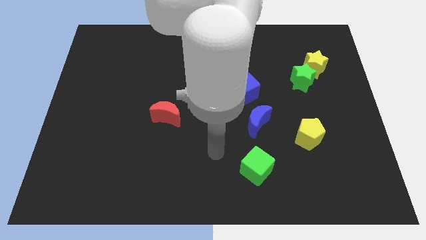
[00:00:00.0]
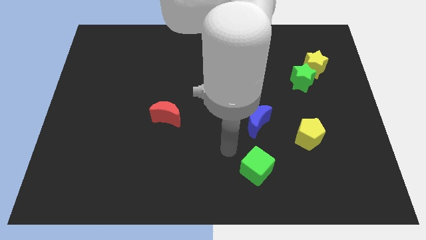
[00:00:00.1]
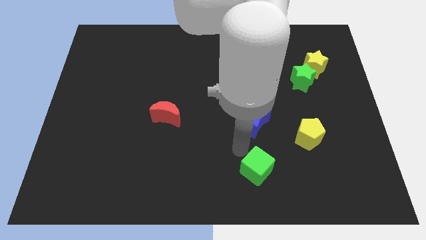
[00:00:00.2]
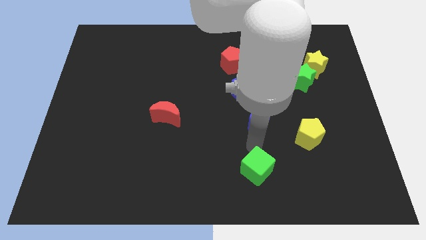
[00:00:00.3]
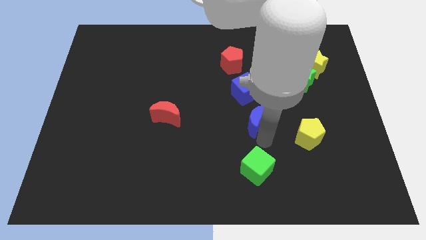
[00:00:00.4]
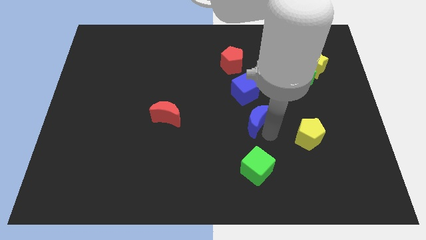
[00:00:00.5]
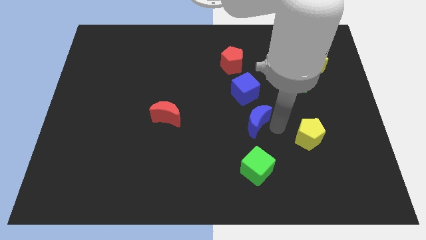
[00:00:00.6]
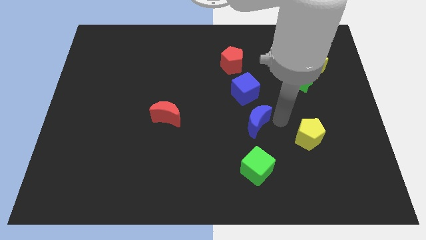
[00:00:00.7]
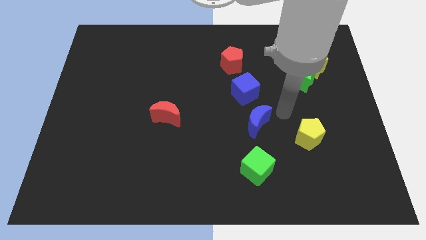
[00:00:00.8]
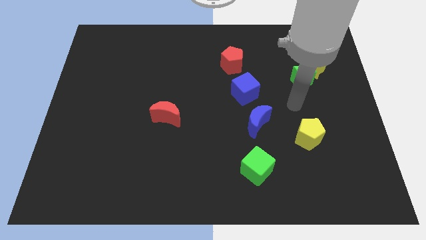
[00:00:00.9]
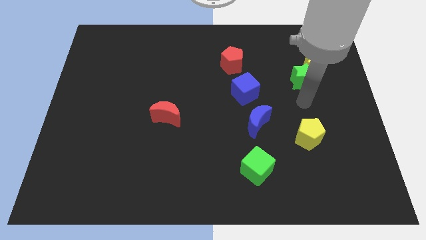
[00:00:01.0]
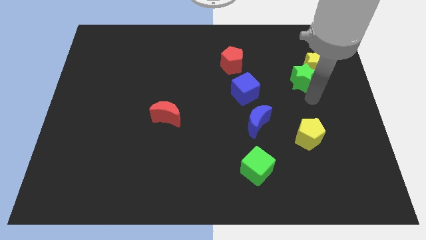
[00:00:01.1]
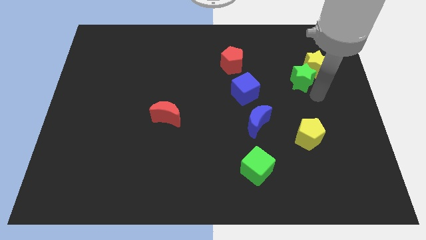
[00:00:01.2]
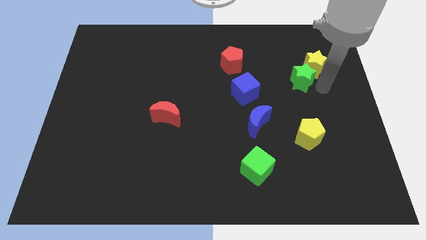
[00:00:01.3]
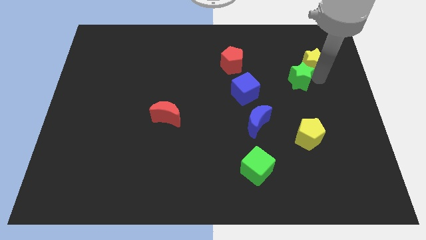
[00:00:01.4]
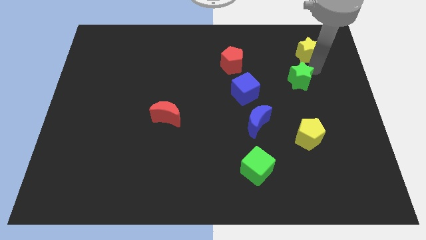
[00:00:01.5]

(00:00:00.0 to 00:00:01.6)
separate the green star from the yellow star

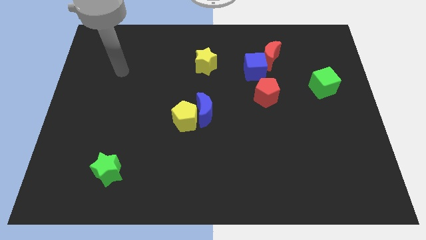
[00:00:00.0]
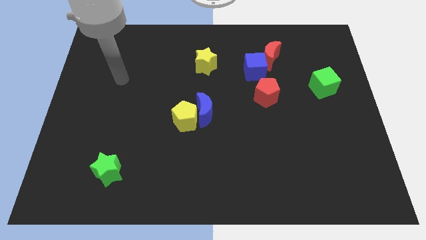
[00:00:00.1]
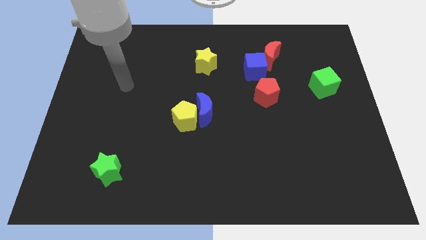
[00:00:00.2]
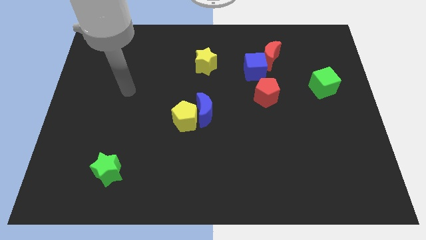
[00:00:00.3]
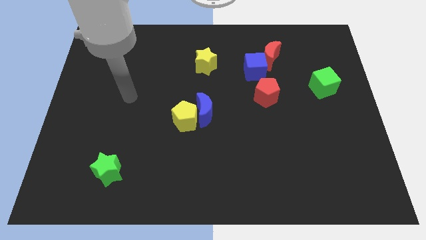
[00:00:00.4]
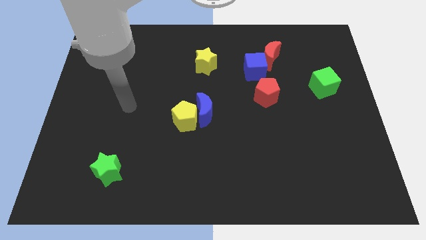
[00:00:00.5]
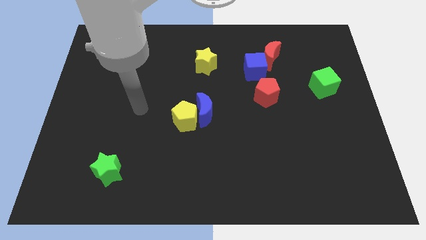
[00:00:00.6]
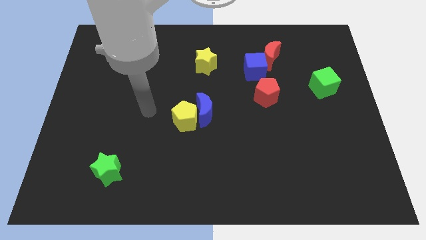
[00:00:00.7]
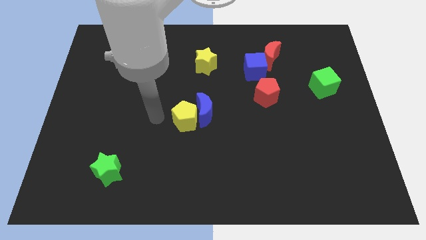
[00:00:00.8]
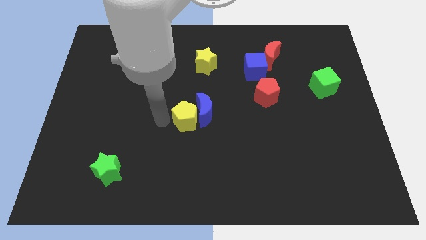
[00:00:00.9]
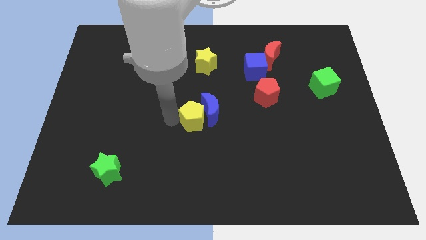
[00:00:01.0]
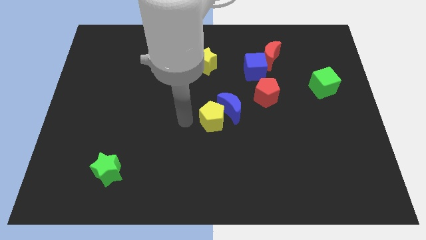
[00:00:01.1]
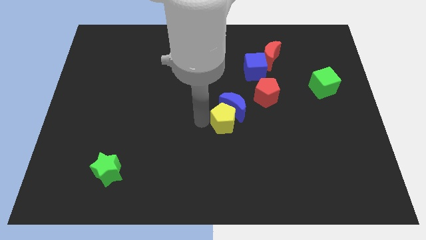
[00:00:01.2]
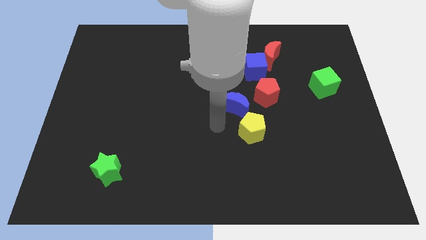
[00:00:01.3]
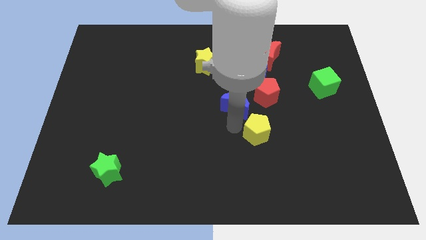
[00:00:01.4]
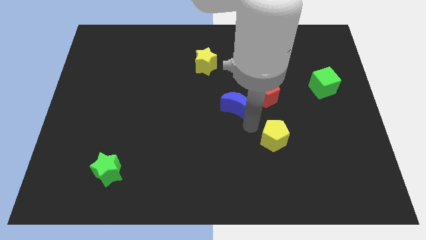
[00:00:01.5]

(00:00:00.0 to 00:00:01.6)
move the blue moon away from the yellow pentagon

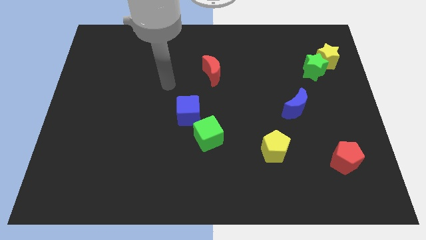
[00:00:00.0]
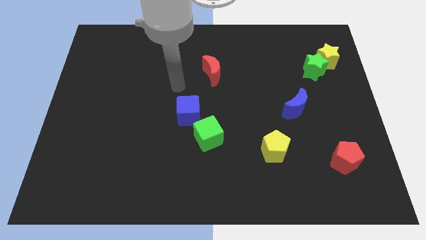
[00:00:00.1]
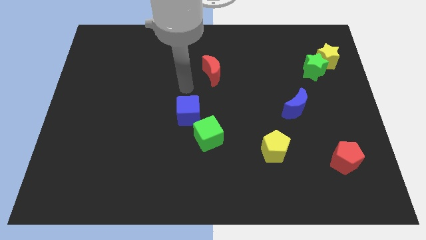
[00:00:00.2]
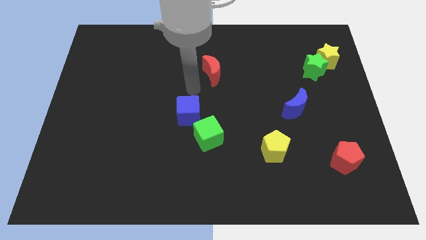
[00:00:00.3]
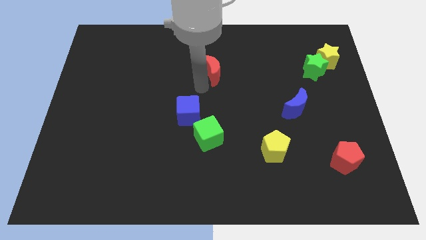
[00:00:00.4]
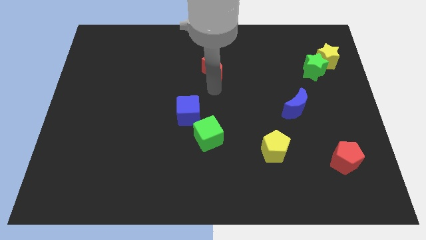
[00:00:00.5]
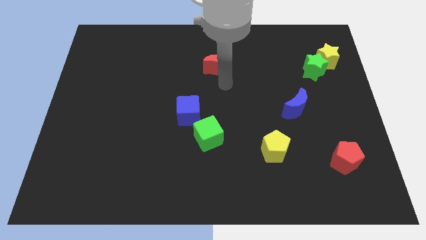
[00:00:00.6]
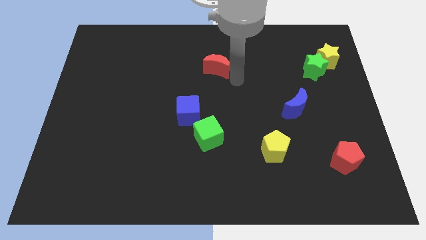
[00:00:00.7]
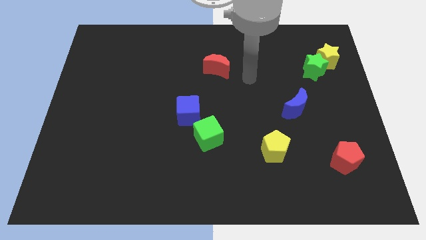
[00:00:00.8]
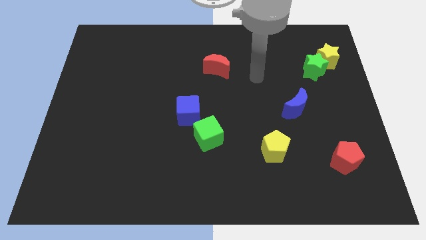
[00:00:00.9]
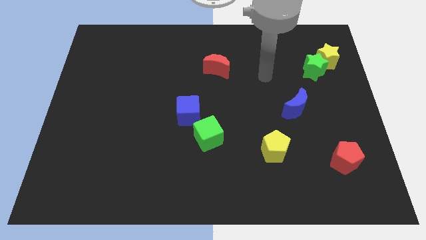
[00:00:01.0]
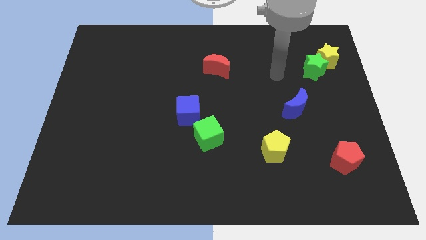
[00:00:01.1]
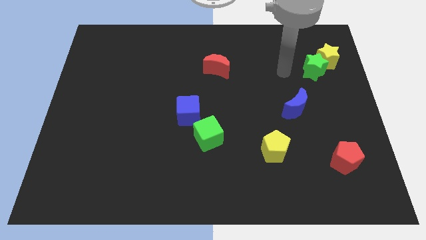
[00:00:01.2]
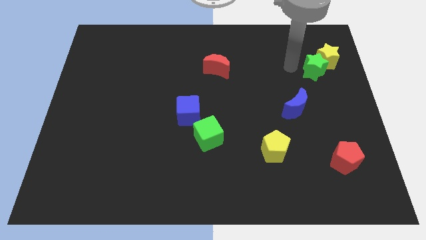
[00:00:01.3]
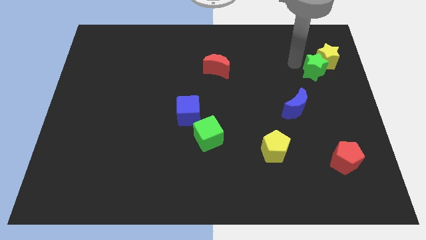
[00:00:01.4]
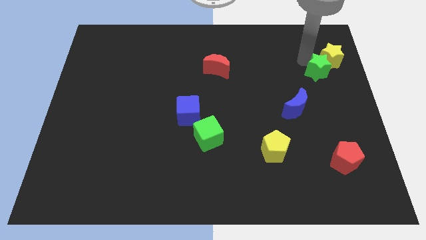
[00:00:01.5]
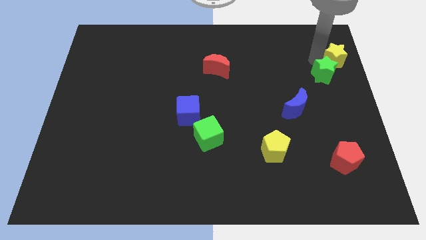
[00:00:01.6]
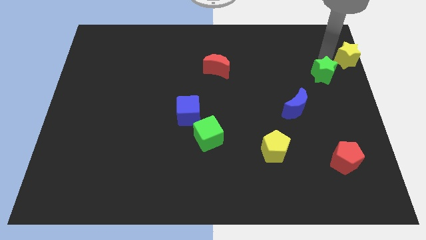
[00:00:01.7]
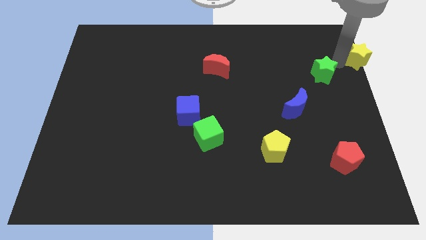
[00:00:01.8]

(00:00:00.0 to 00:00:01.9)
pull the green star apart from the yellow star

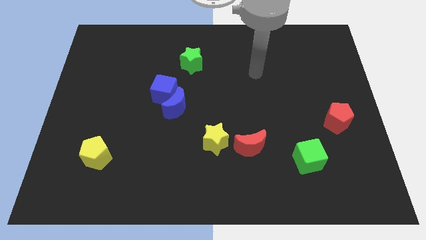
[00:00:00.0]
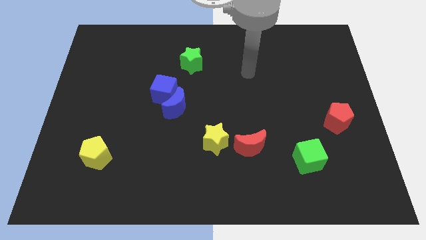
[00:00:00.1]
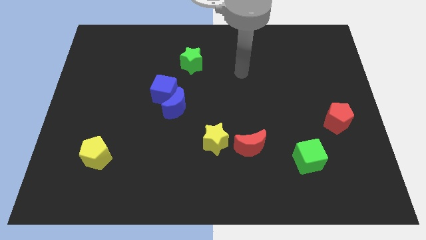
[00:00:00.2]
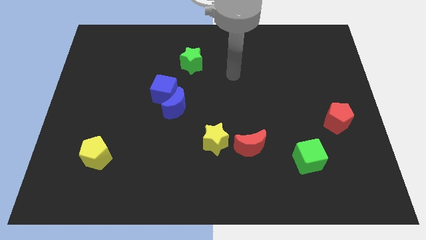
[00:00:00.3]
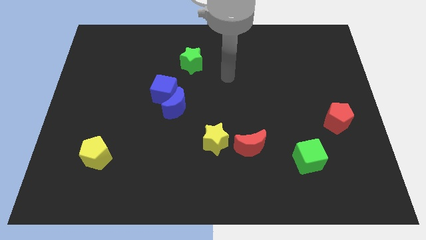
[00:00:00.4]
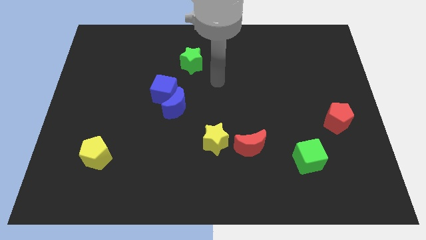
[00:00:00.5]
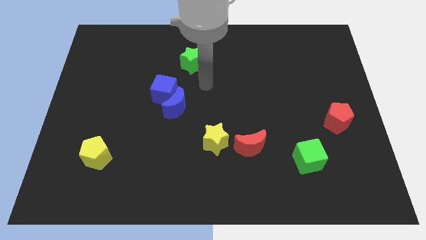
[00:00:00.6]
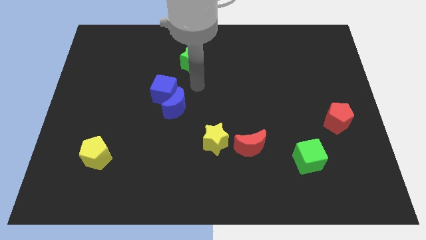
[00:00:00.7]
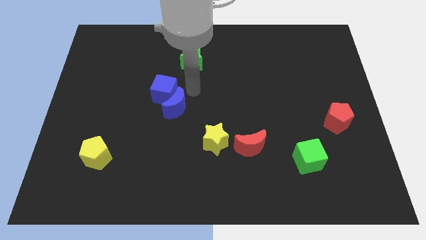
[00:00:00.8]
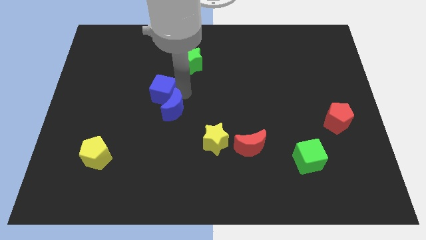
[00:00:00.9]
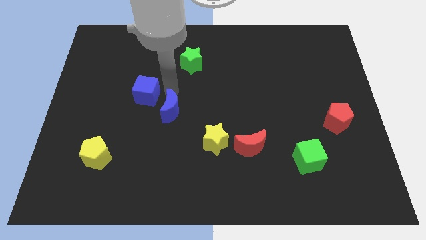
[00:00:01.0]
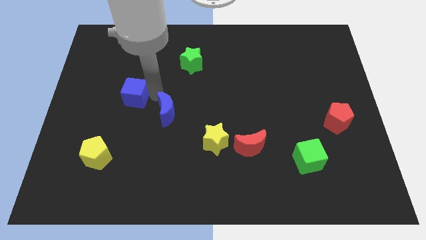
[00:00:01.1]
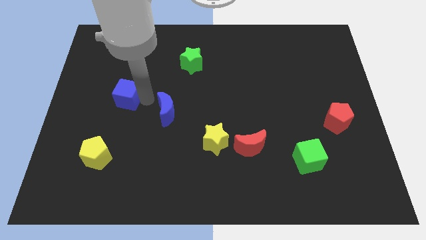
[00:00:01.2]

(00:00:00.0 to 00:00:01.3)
move the blue moon away from the blue cube

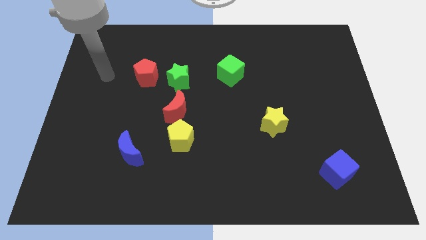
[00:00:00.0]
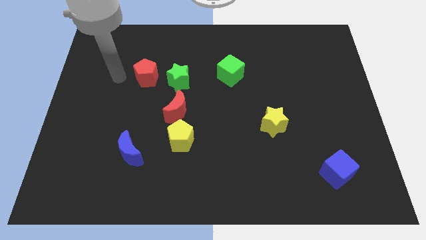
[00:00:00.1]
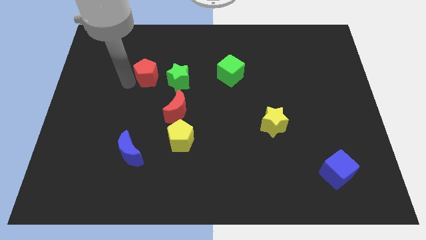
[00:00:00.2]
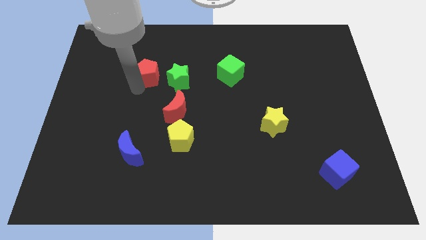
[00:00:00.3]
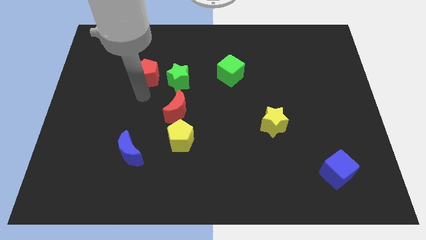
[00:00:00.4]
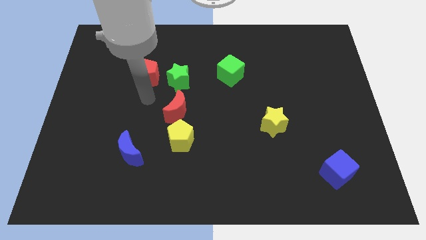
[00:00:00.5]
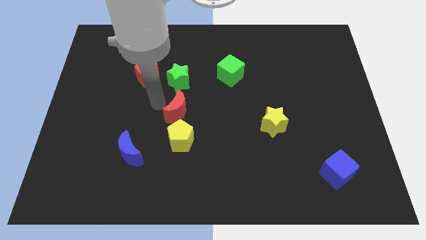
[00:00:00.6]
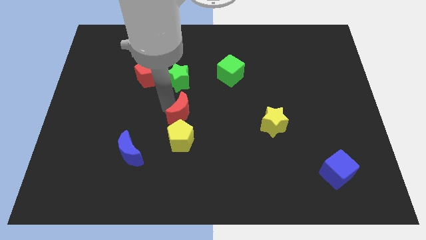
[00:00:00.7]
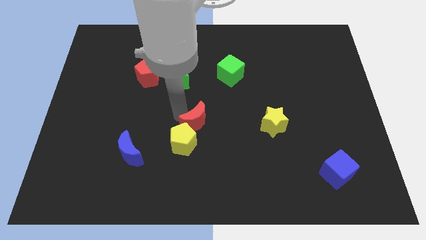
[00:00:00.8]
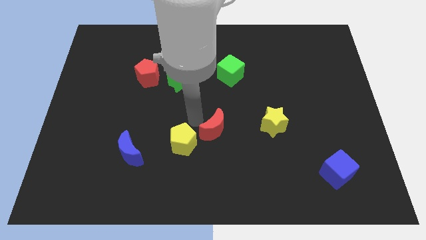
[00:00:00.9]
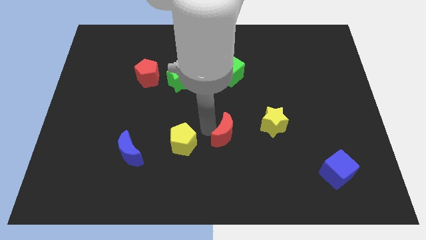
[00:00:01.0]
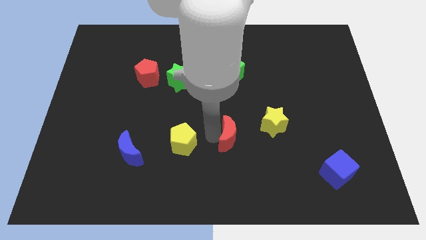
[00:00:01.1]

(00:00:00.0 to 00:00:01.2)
pull the yellow pentagon apart from the red moon

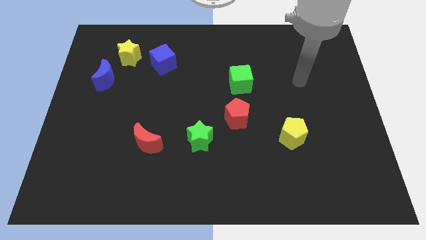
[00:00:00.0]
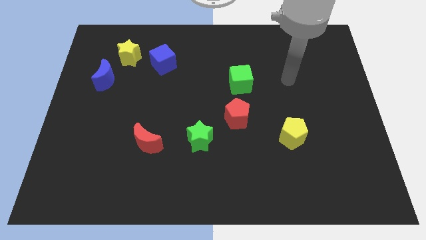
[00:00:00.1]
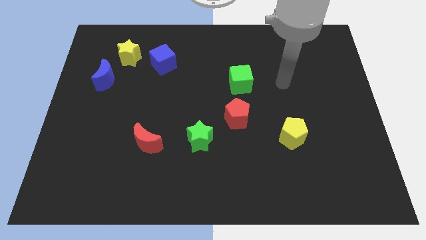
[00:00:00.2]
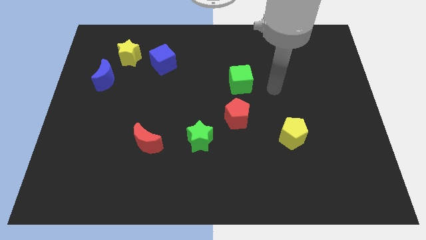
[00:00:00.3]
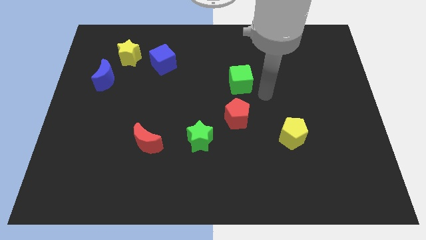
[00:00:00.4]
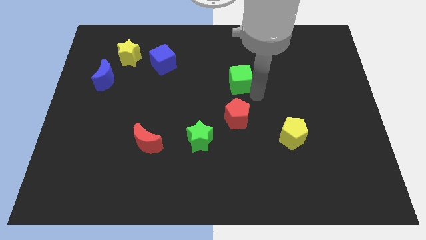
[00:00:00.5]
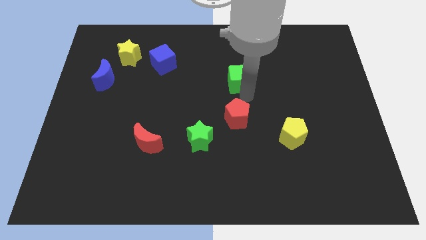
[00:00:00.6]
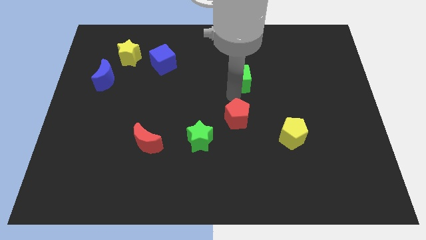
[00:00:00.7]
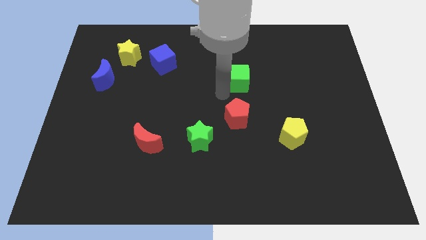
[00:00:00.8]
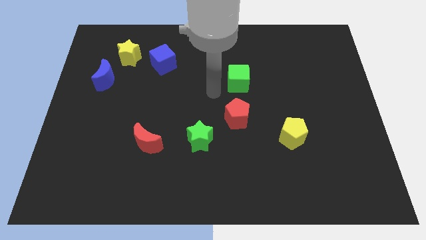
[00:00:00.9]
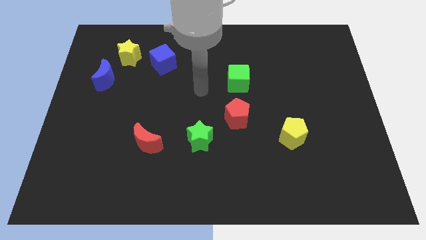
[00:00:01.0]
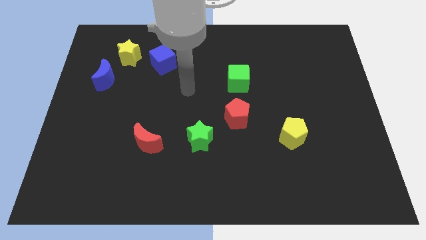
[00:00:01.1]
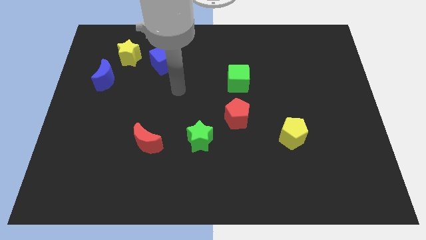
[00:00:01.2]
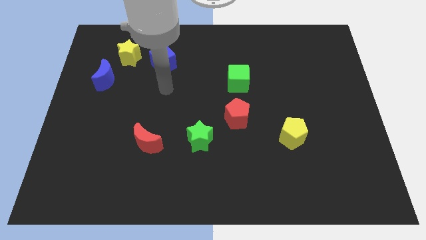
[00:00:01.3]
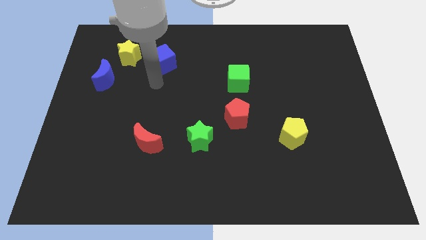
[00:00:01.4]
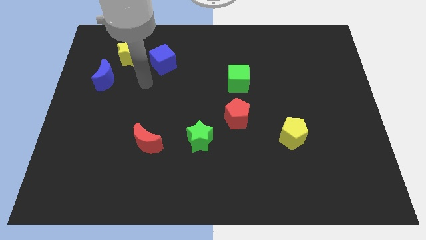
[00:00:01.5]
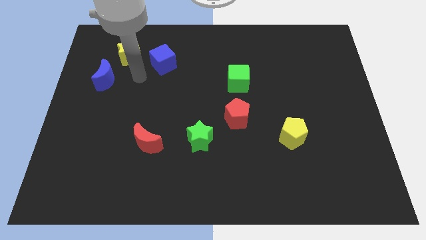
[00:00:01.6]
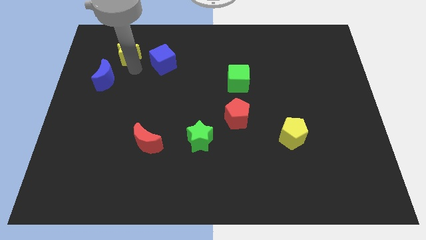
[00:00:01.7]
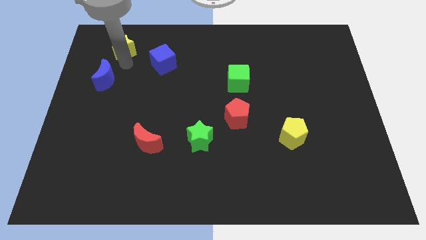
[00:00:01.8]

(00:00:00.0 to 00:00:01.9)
pull the blue moon apart from the yellow star
